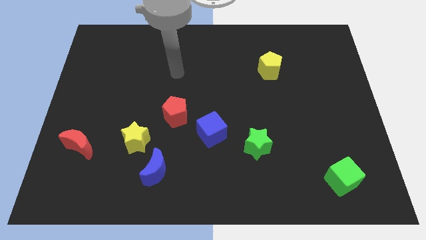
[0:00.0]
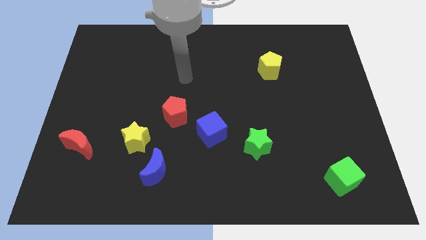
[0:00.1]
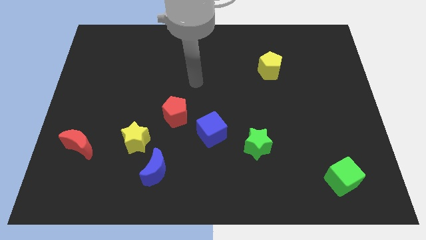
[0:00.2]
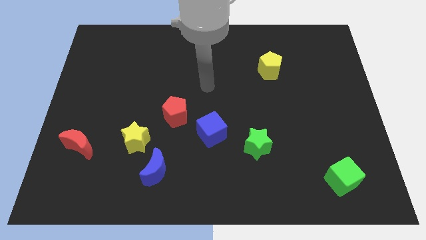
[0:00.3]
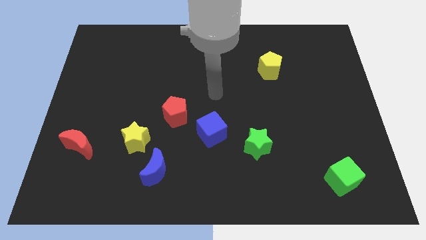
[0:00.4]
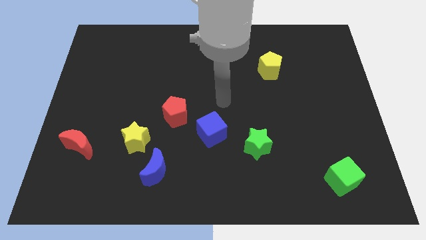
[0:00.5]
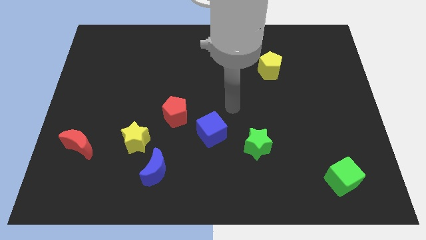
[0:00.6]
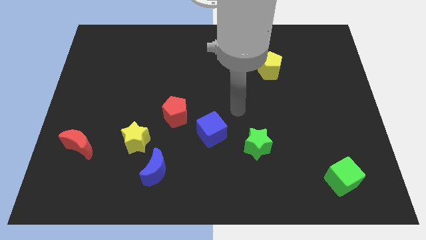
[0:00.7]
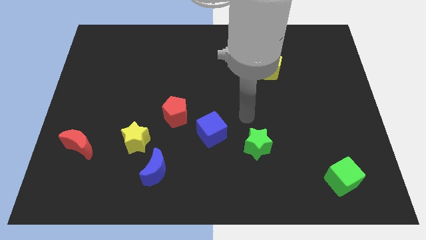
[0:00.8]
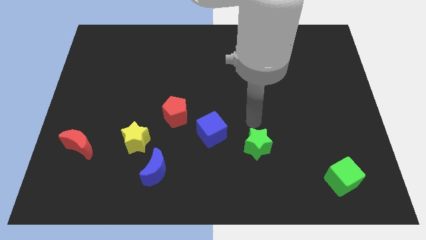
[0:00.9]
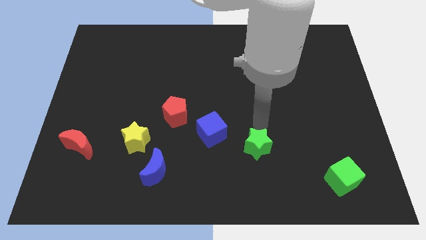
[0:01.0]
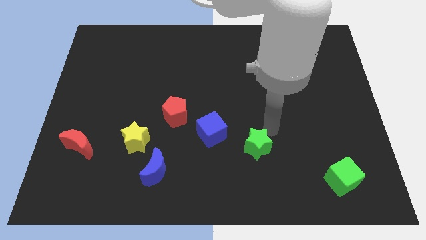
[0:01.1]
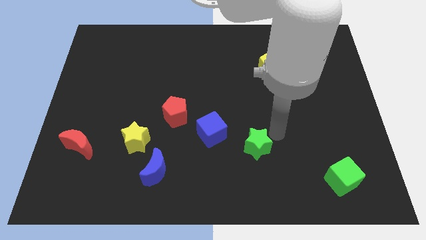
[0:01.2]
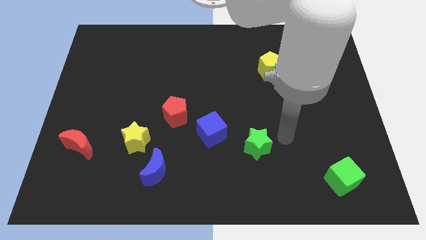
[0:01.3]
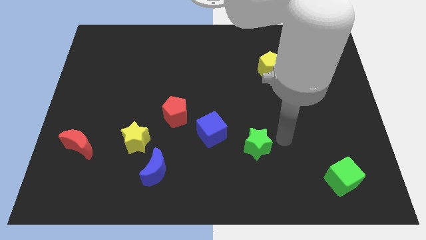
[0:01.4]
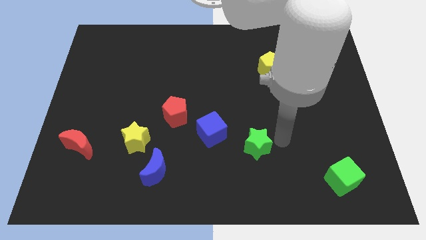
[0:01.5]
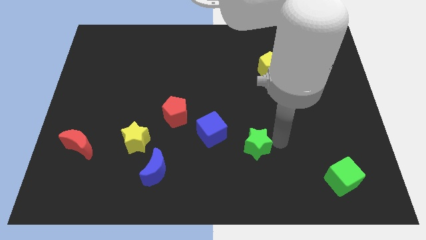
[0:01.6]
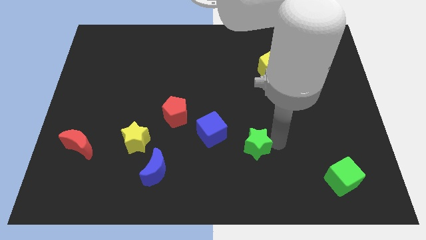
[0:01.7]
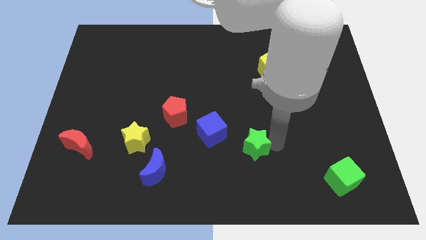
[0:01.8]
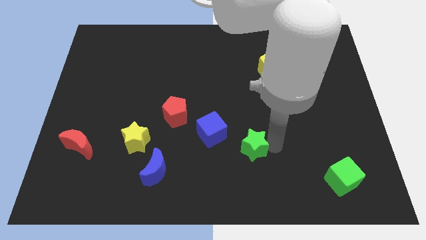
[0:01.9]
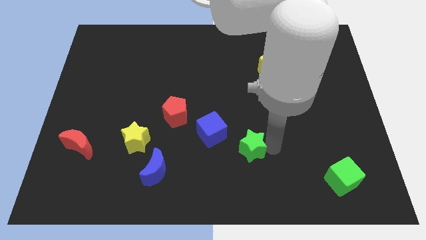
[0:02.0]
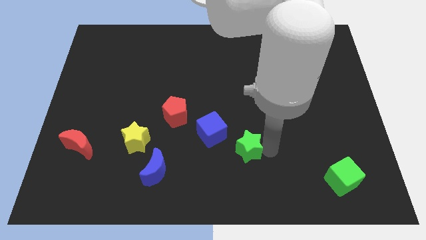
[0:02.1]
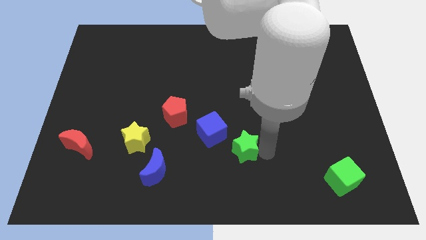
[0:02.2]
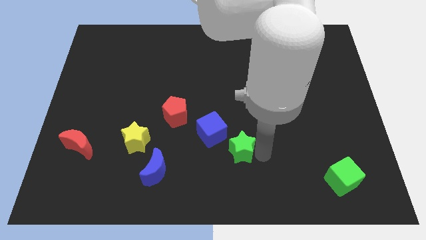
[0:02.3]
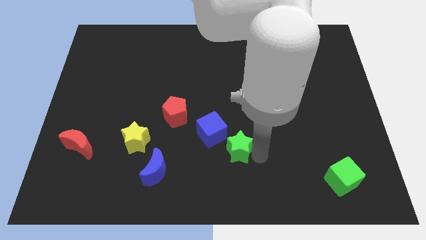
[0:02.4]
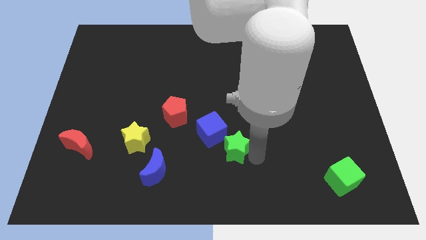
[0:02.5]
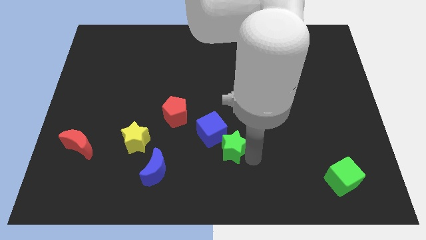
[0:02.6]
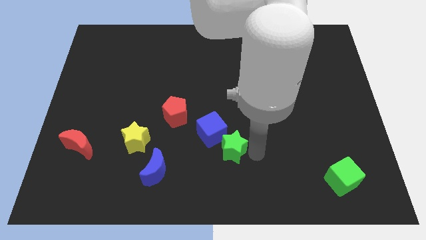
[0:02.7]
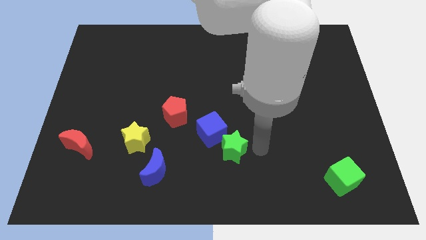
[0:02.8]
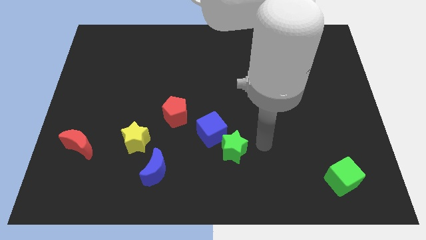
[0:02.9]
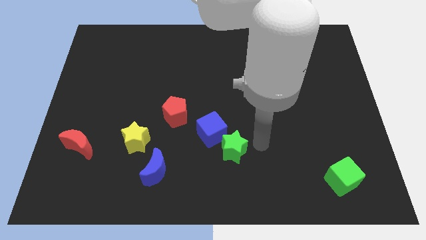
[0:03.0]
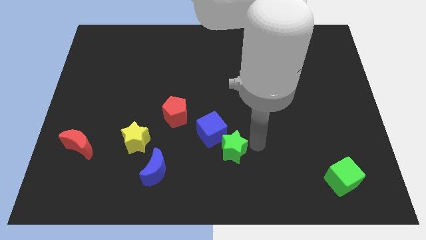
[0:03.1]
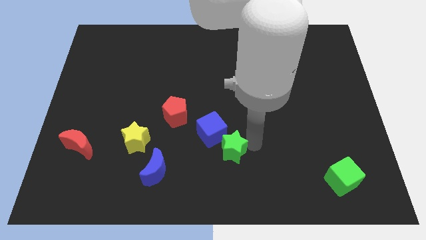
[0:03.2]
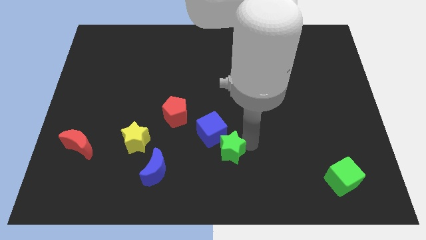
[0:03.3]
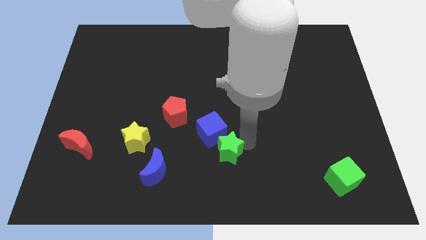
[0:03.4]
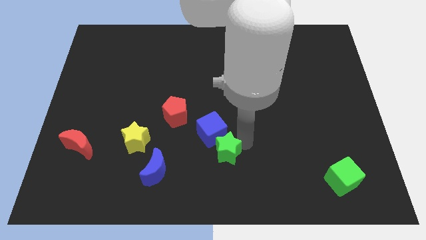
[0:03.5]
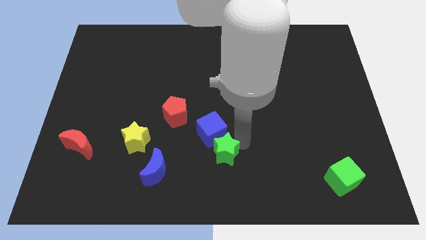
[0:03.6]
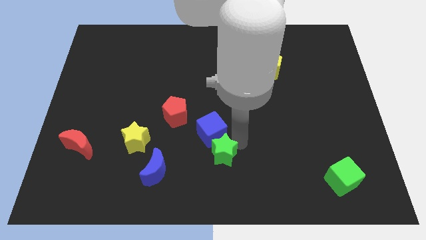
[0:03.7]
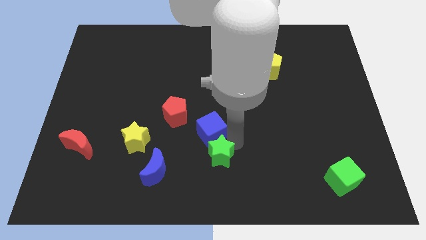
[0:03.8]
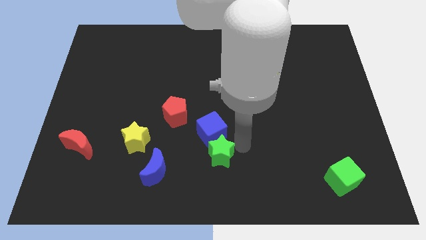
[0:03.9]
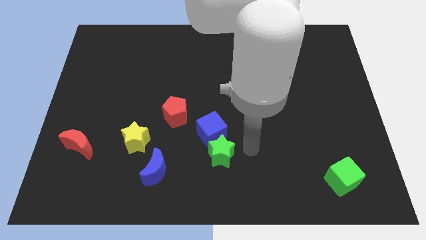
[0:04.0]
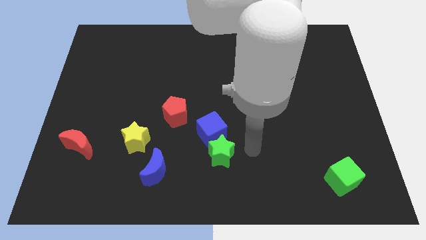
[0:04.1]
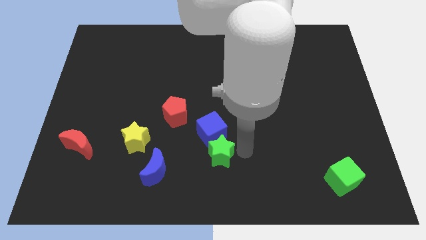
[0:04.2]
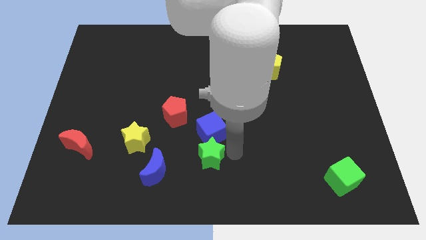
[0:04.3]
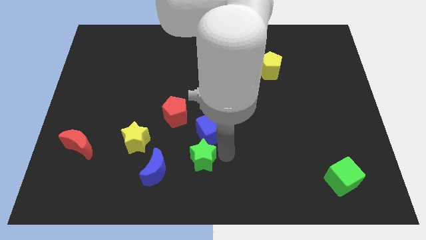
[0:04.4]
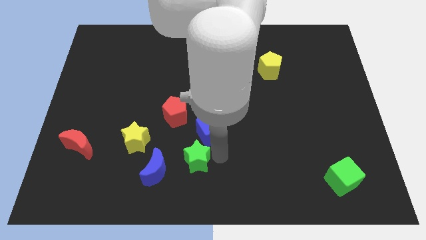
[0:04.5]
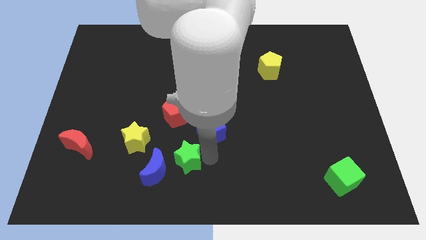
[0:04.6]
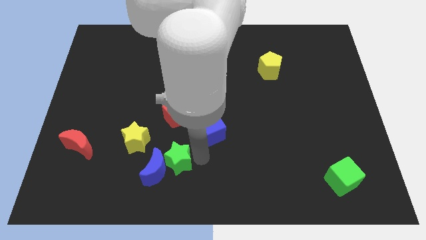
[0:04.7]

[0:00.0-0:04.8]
move the green star to the blue moon

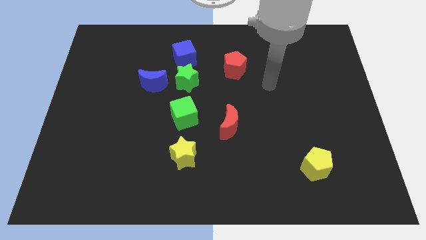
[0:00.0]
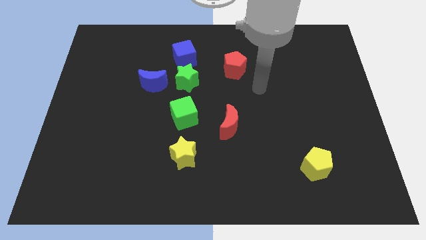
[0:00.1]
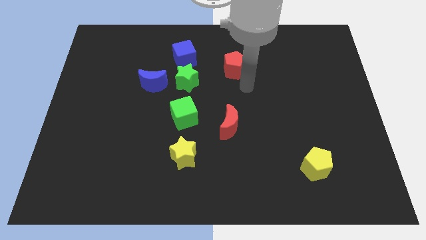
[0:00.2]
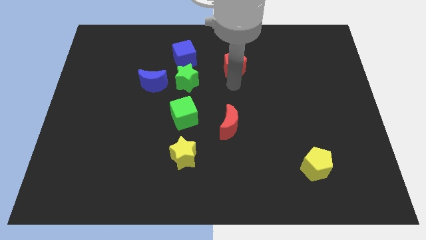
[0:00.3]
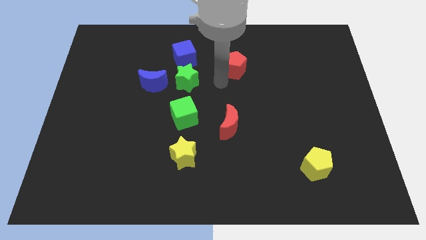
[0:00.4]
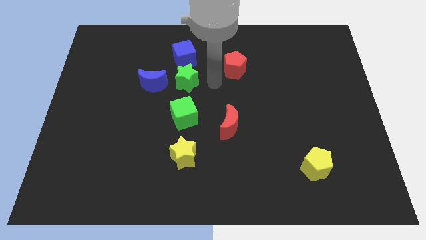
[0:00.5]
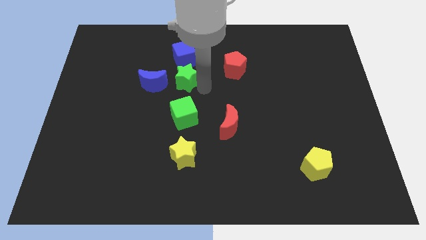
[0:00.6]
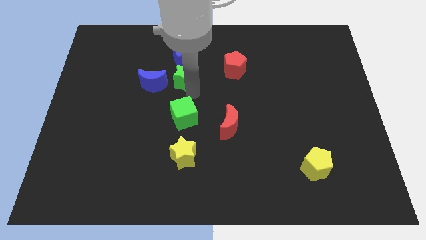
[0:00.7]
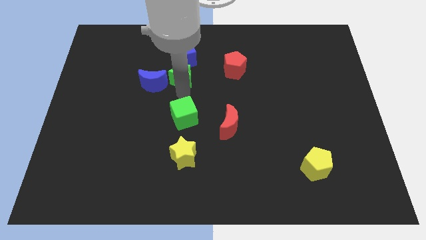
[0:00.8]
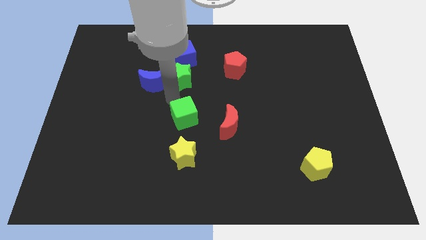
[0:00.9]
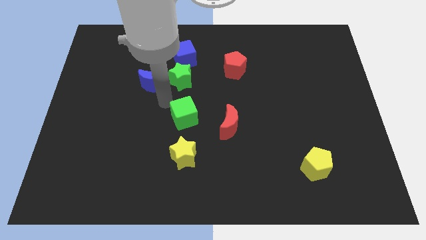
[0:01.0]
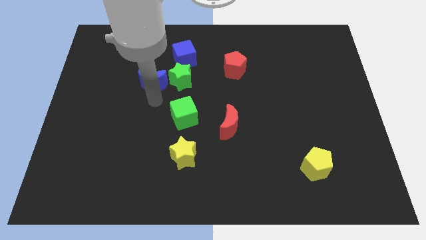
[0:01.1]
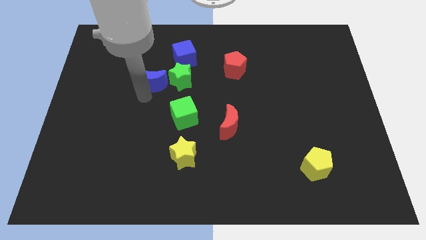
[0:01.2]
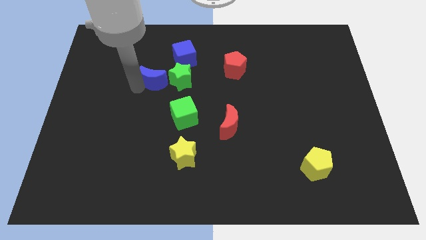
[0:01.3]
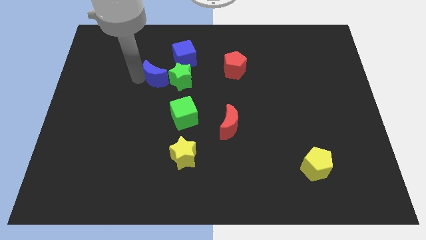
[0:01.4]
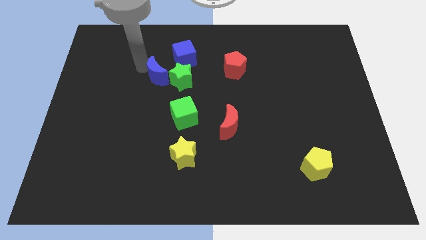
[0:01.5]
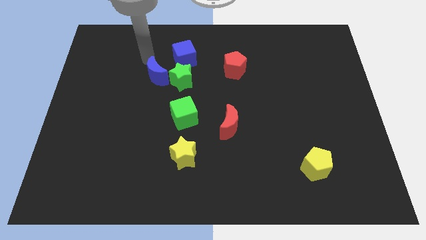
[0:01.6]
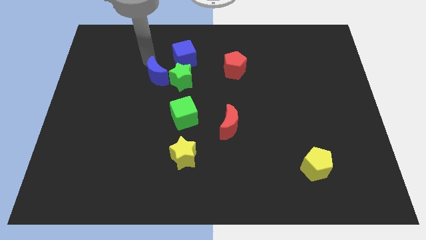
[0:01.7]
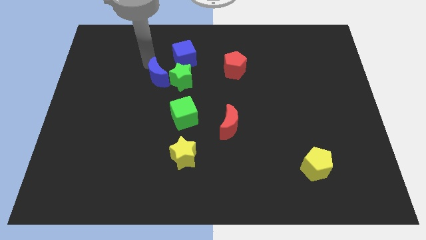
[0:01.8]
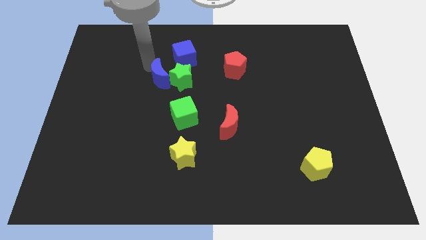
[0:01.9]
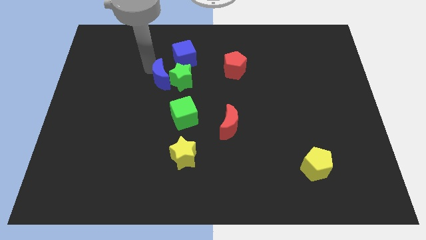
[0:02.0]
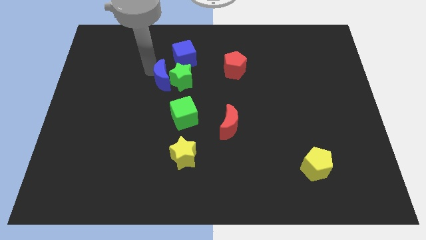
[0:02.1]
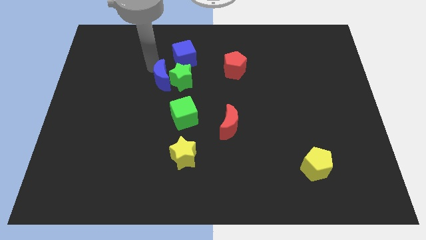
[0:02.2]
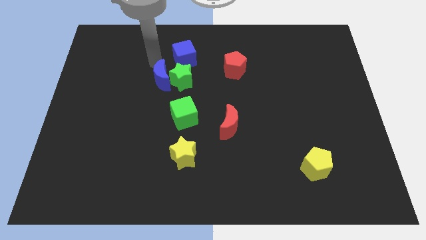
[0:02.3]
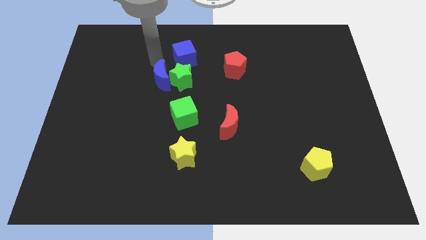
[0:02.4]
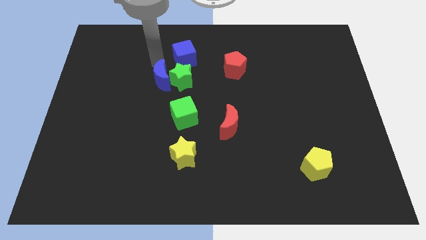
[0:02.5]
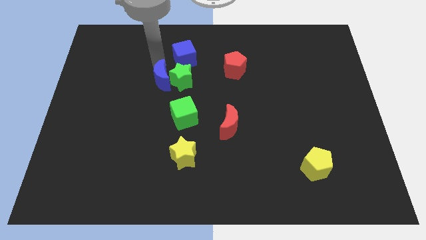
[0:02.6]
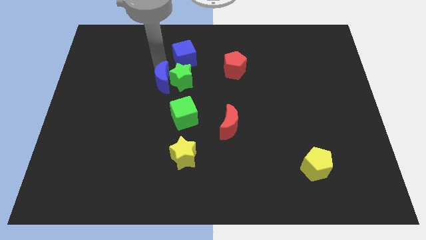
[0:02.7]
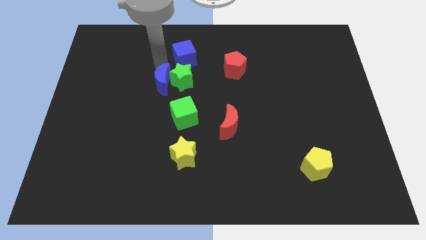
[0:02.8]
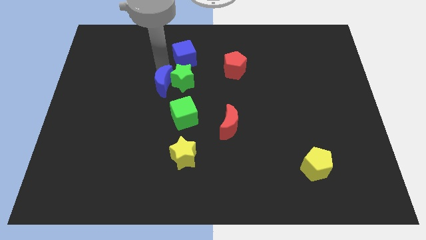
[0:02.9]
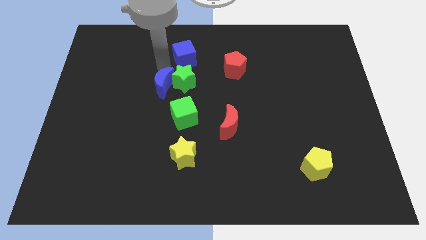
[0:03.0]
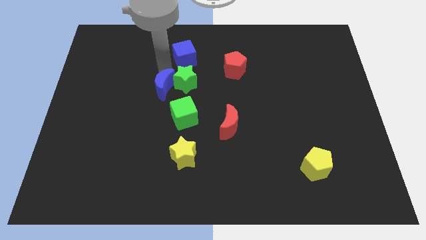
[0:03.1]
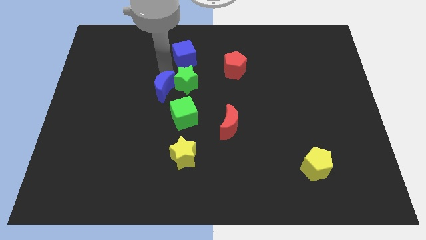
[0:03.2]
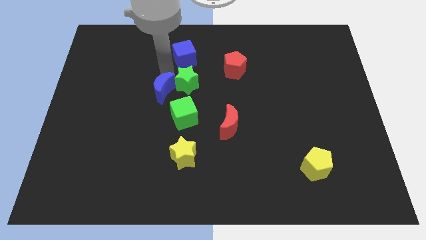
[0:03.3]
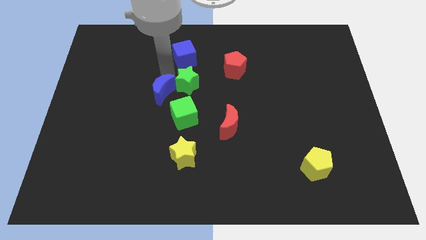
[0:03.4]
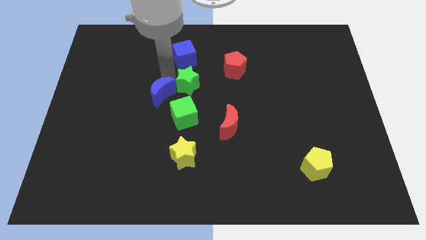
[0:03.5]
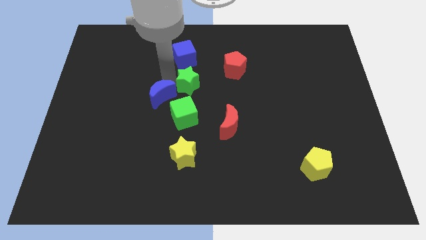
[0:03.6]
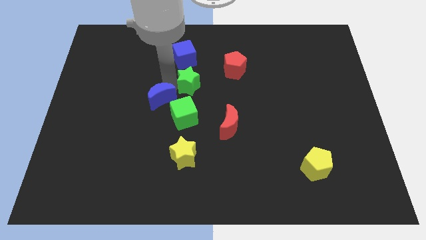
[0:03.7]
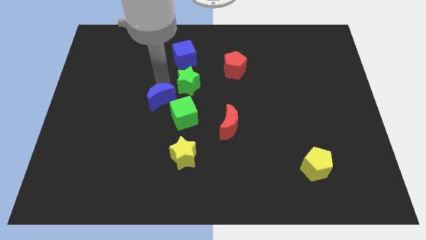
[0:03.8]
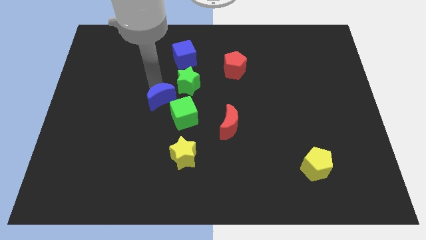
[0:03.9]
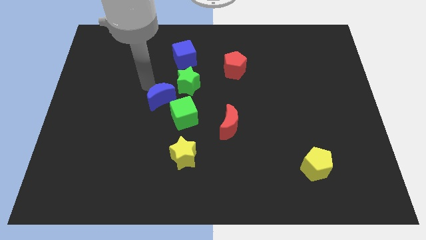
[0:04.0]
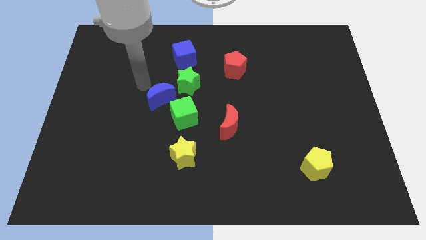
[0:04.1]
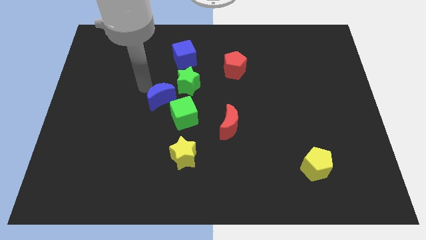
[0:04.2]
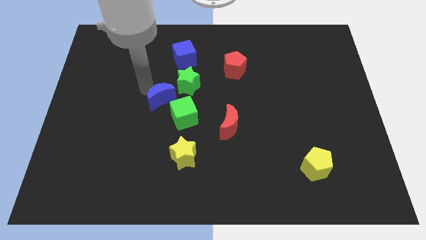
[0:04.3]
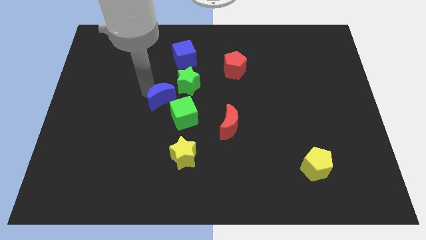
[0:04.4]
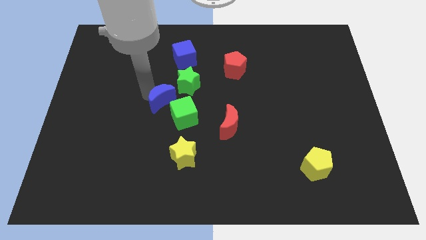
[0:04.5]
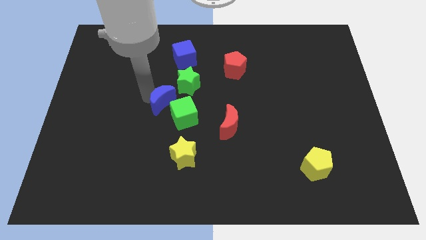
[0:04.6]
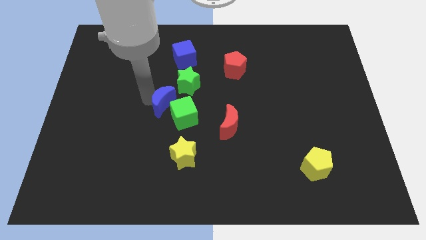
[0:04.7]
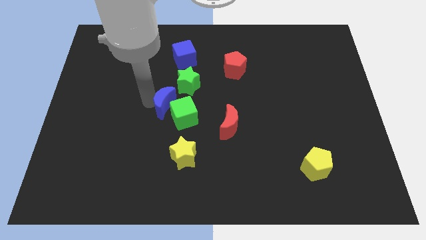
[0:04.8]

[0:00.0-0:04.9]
put the blue moon close to the green cube
